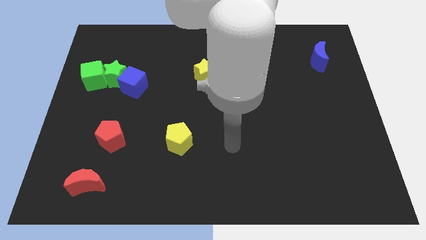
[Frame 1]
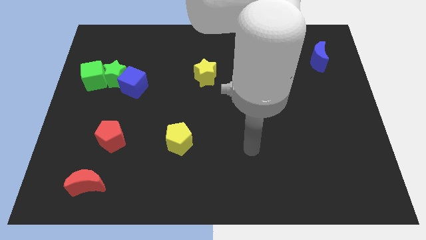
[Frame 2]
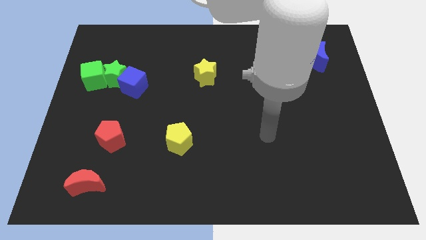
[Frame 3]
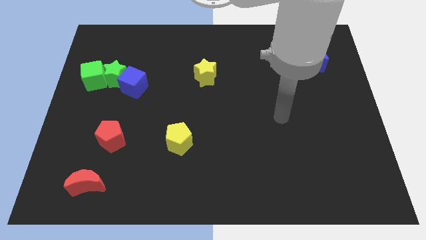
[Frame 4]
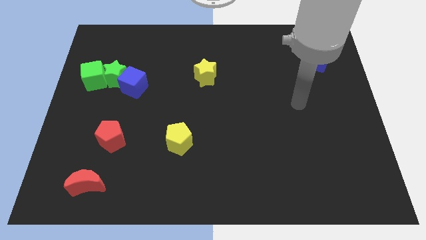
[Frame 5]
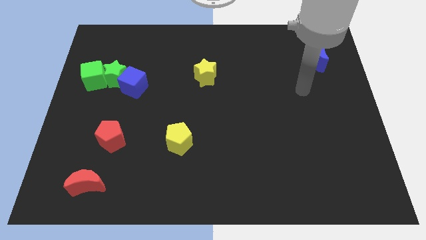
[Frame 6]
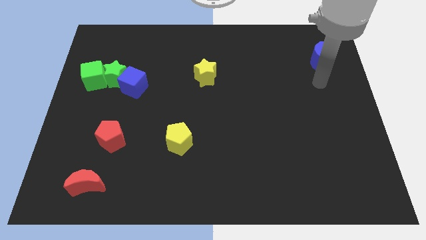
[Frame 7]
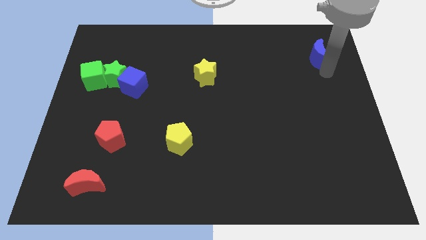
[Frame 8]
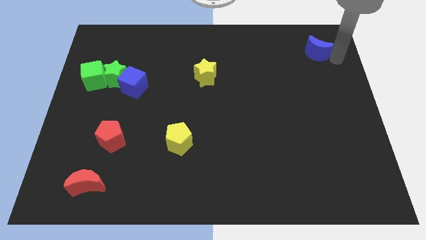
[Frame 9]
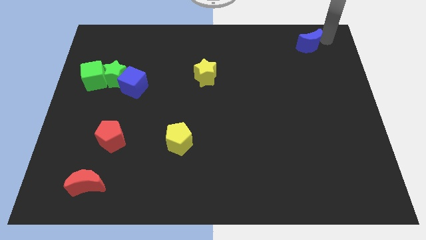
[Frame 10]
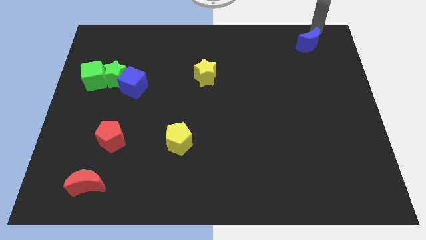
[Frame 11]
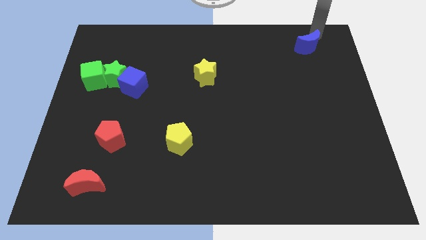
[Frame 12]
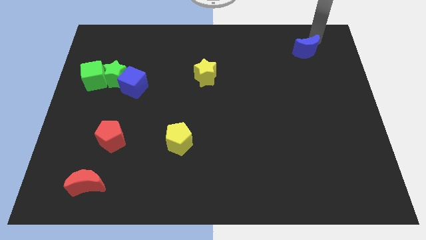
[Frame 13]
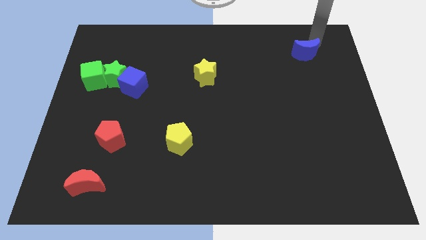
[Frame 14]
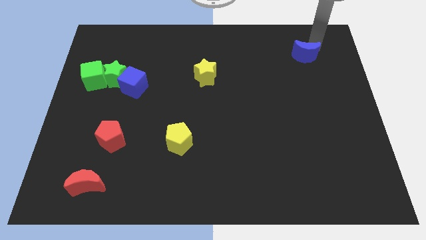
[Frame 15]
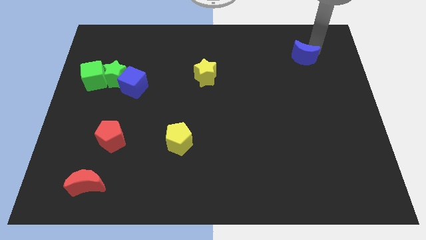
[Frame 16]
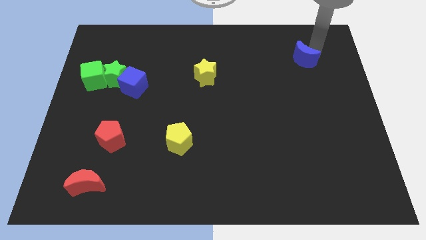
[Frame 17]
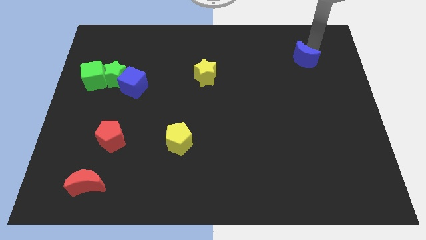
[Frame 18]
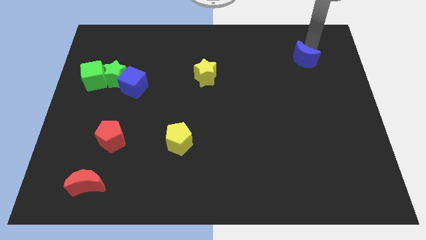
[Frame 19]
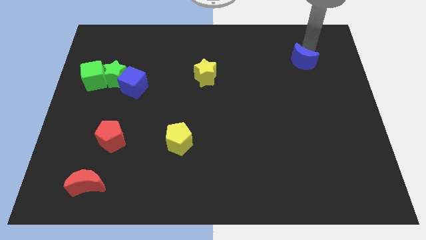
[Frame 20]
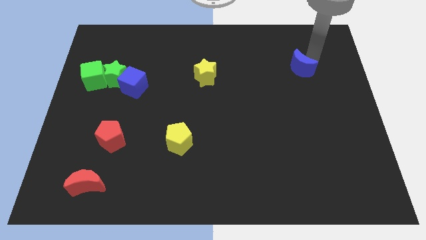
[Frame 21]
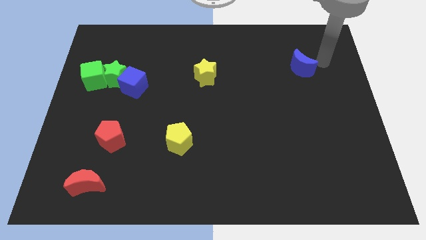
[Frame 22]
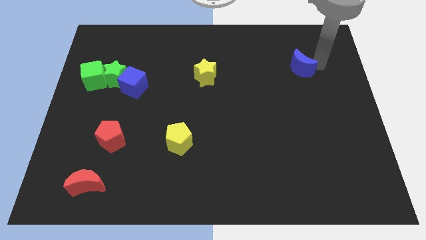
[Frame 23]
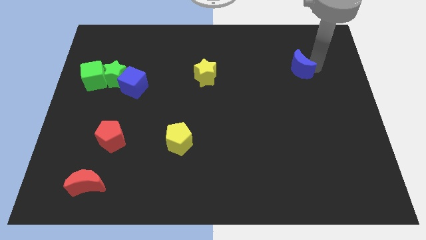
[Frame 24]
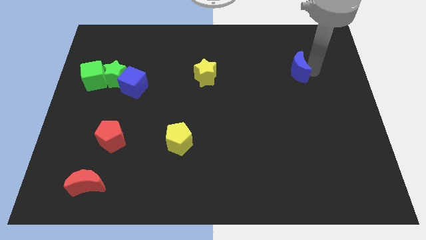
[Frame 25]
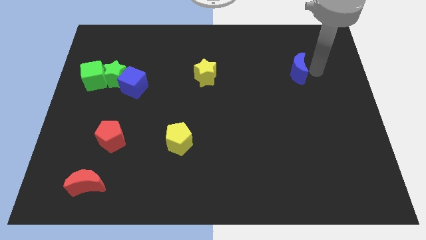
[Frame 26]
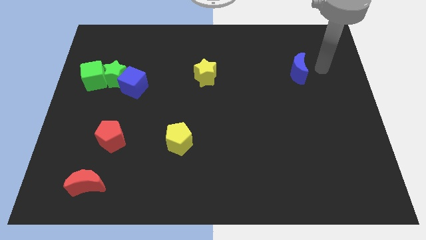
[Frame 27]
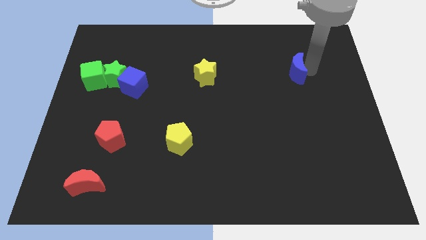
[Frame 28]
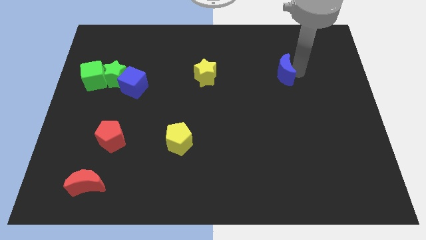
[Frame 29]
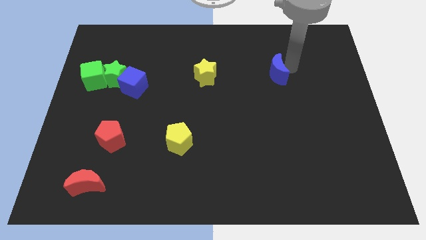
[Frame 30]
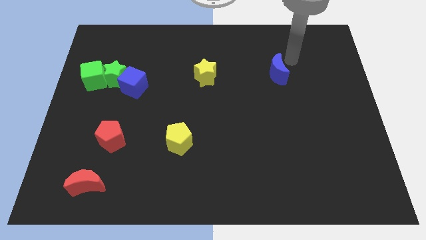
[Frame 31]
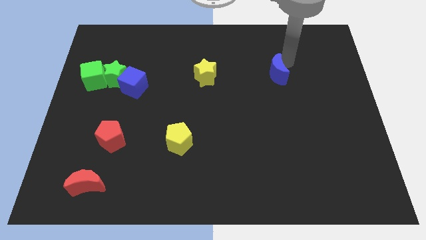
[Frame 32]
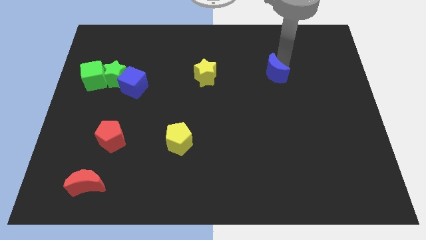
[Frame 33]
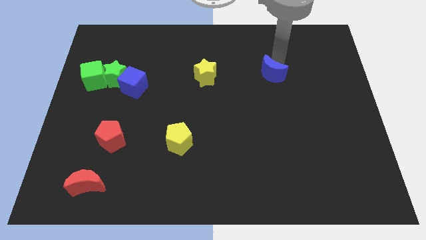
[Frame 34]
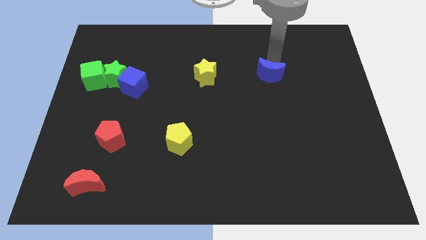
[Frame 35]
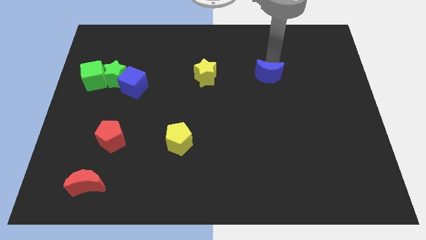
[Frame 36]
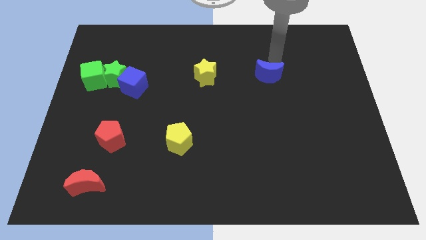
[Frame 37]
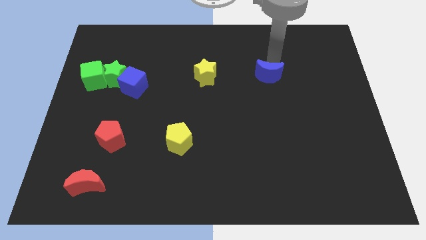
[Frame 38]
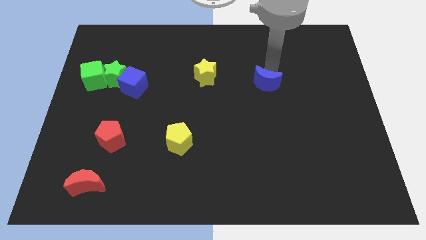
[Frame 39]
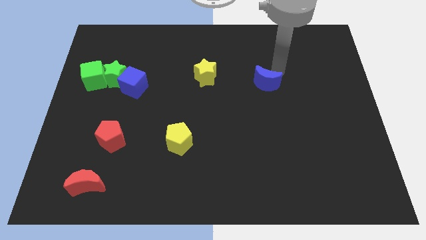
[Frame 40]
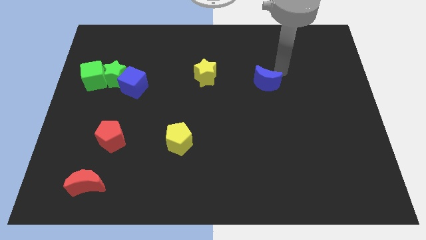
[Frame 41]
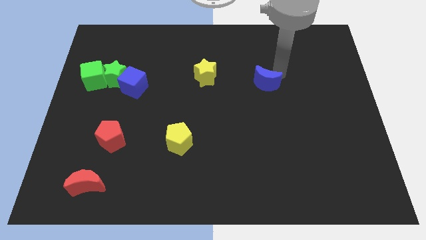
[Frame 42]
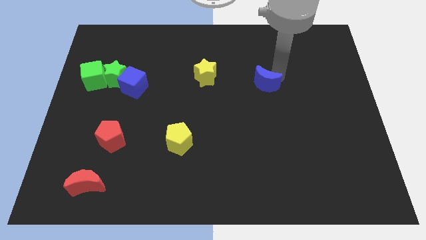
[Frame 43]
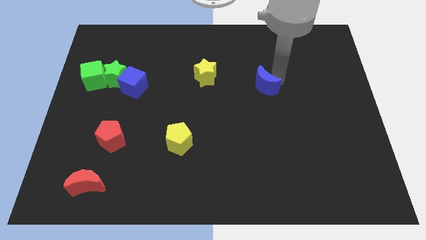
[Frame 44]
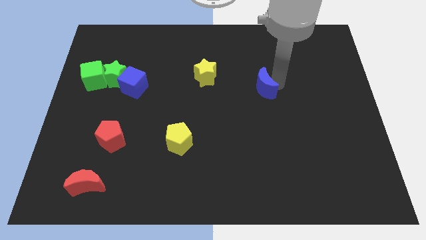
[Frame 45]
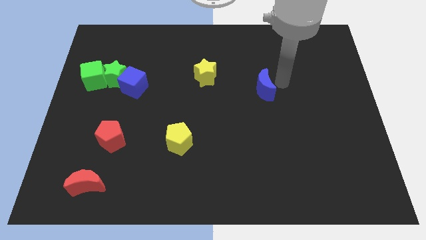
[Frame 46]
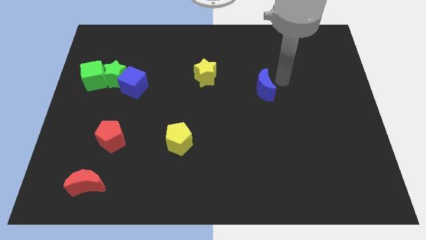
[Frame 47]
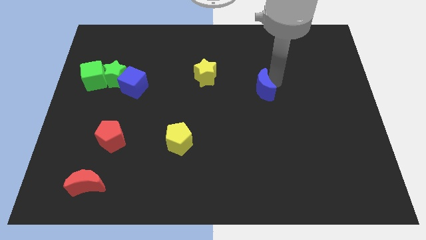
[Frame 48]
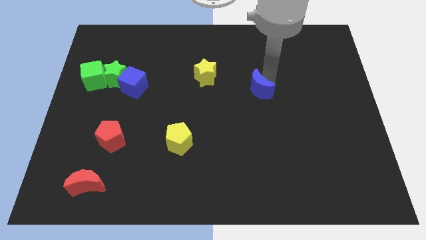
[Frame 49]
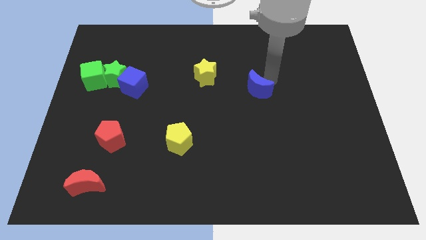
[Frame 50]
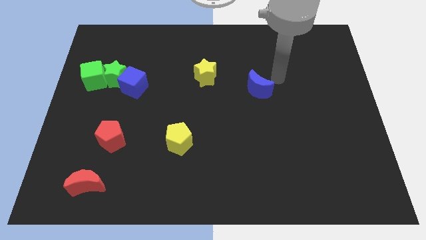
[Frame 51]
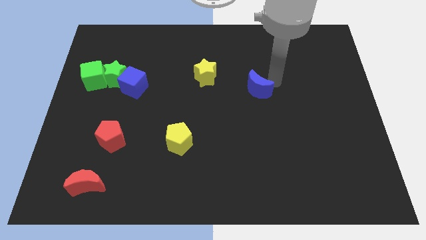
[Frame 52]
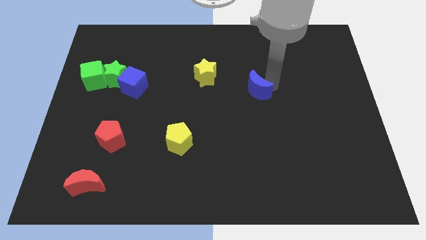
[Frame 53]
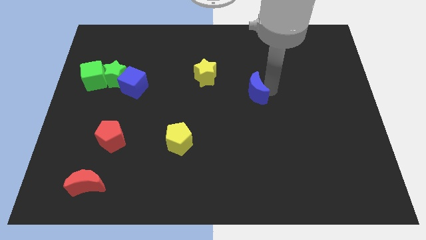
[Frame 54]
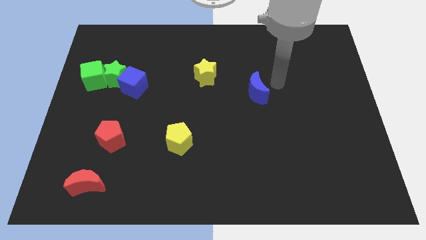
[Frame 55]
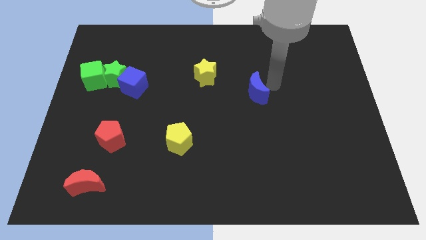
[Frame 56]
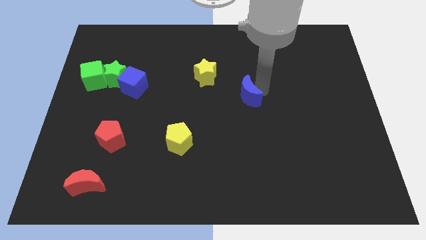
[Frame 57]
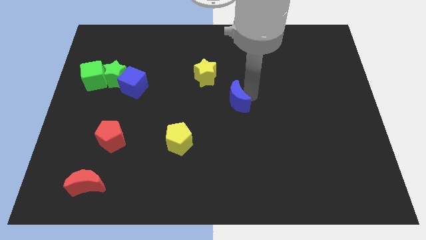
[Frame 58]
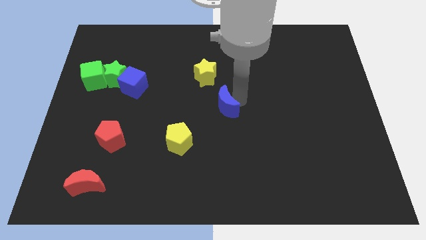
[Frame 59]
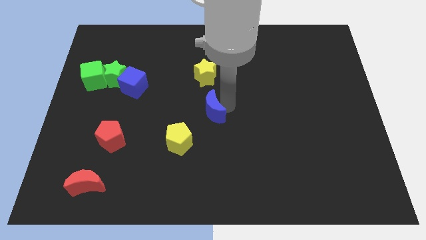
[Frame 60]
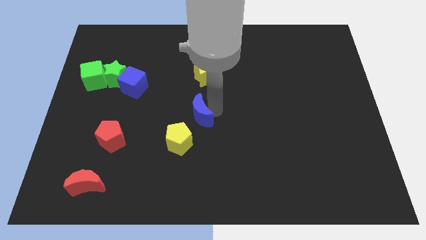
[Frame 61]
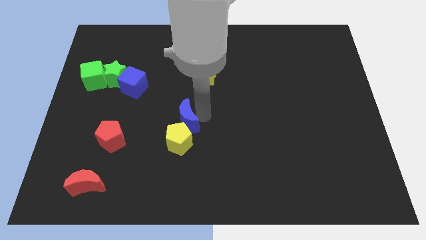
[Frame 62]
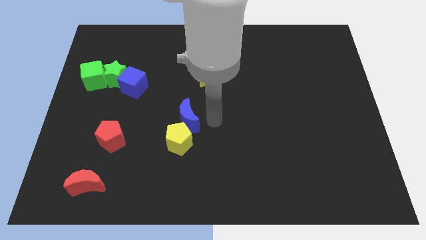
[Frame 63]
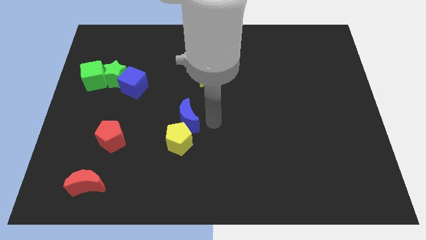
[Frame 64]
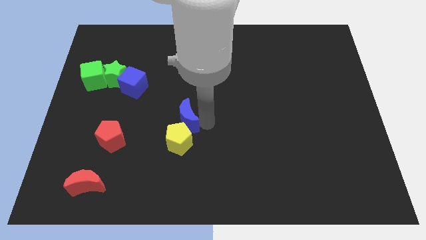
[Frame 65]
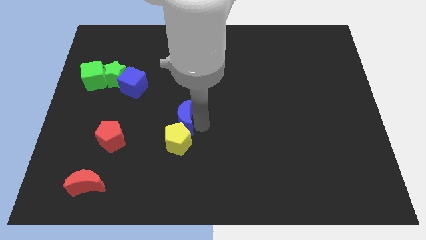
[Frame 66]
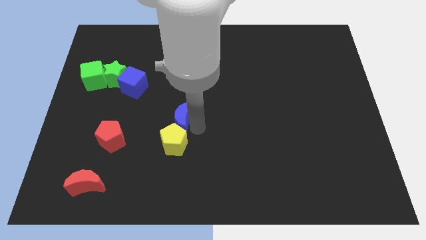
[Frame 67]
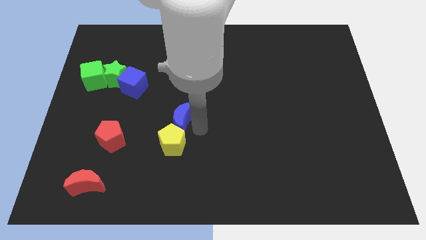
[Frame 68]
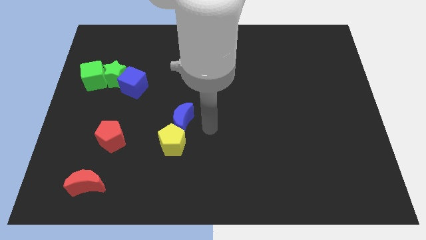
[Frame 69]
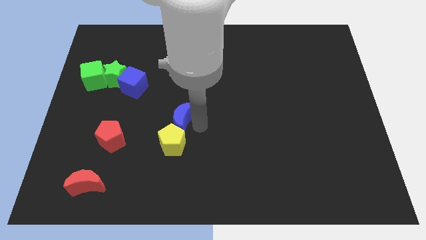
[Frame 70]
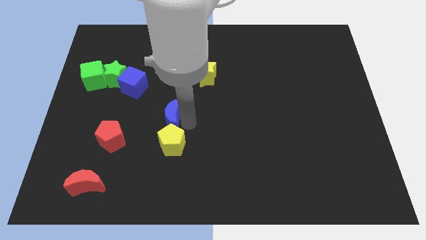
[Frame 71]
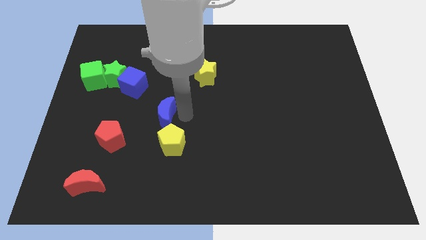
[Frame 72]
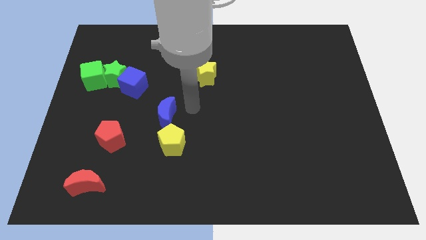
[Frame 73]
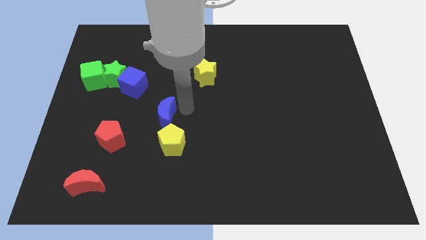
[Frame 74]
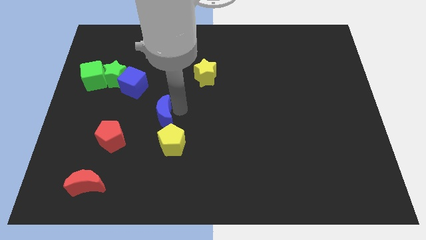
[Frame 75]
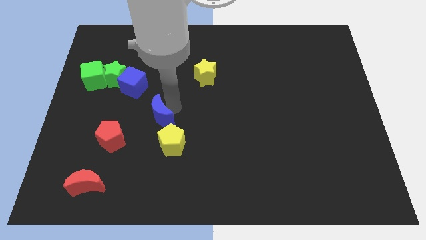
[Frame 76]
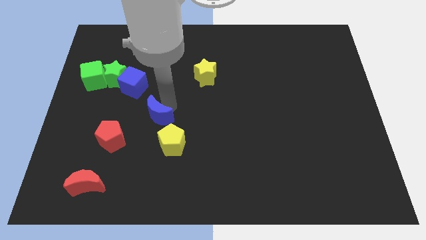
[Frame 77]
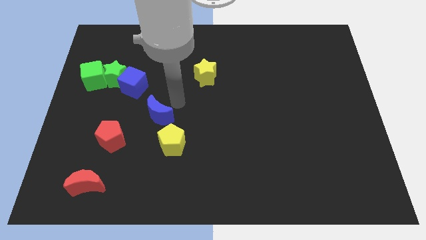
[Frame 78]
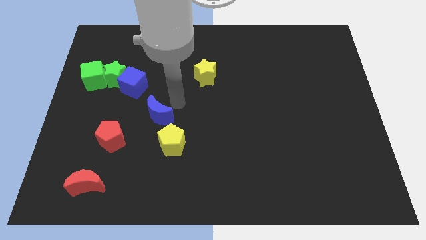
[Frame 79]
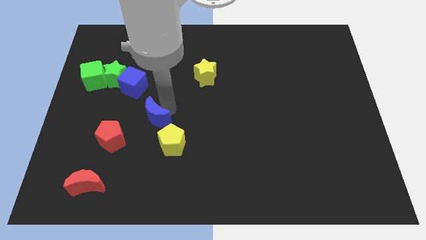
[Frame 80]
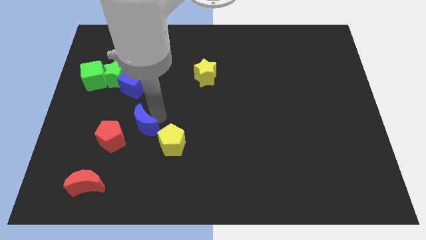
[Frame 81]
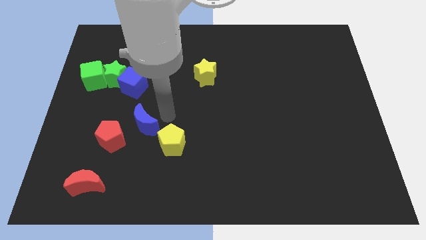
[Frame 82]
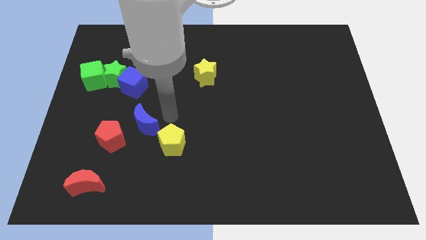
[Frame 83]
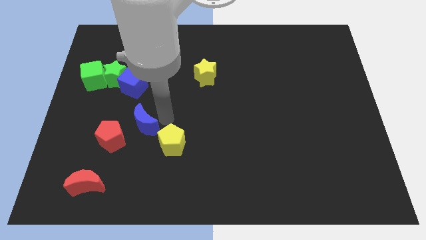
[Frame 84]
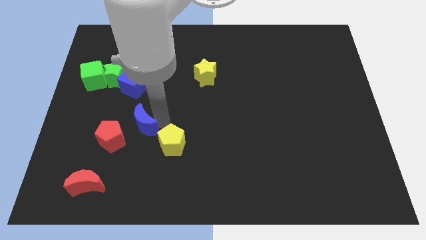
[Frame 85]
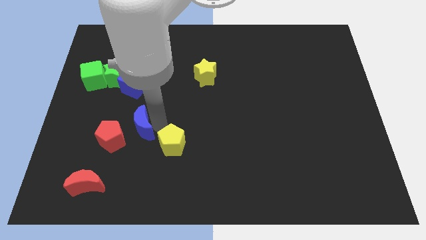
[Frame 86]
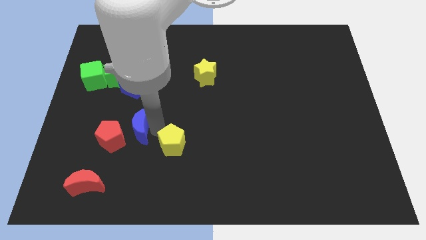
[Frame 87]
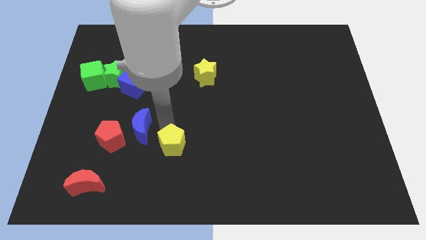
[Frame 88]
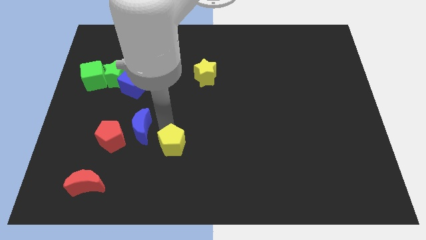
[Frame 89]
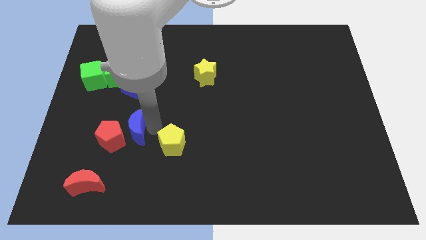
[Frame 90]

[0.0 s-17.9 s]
put the blue moon towards the red pentagon
